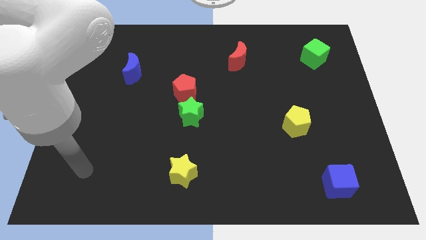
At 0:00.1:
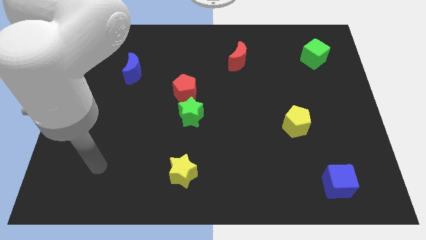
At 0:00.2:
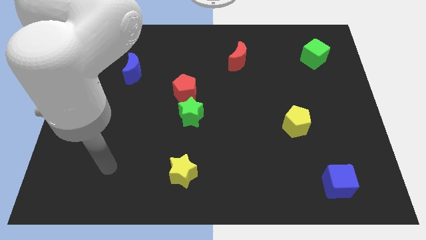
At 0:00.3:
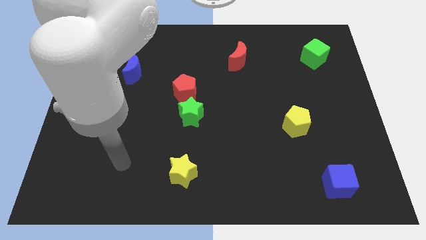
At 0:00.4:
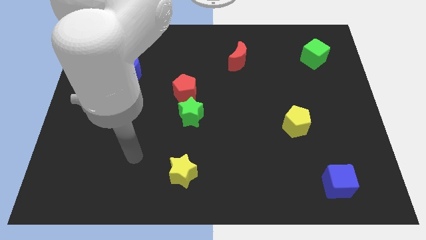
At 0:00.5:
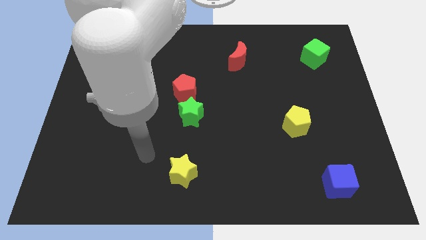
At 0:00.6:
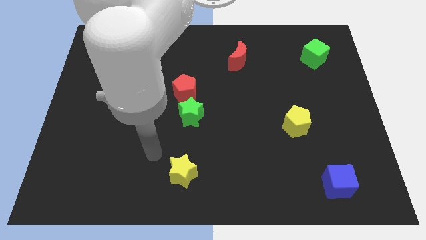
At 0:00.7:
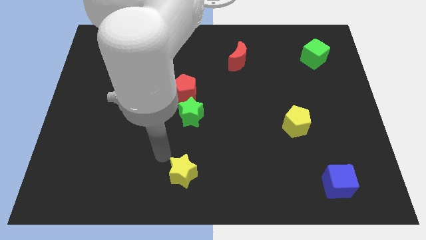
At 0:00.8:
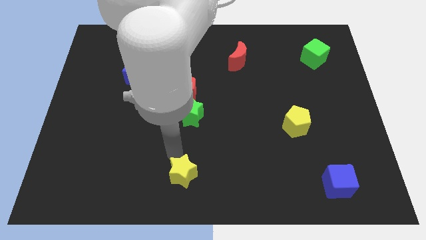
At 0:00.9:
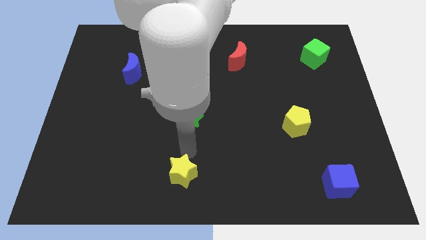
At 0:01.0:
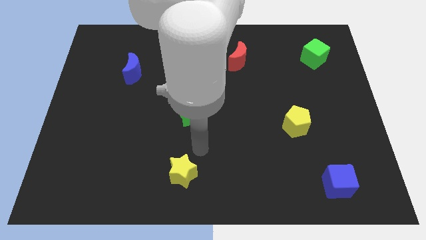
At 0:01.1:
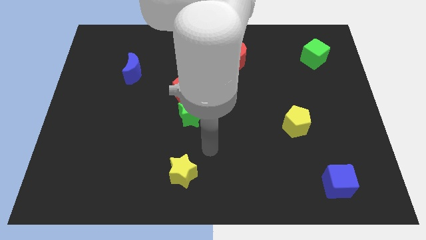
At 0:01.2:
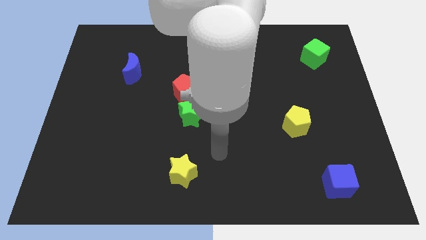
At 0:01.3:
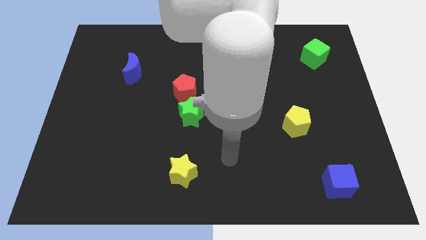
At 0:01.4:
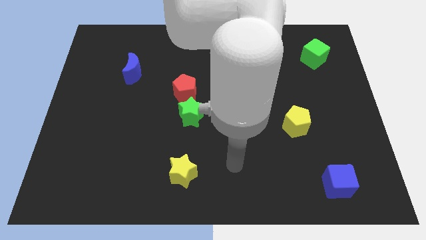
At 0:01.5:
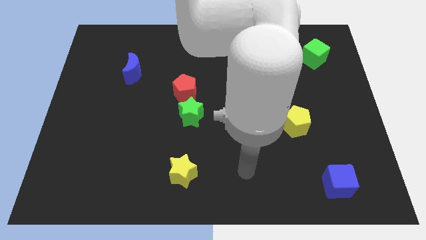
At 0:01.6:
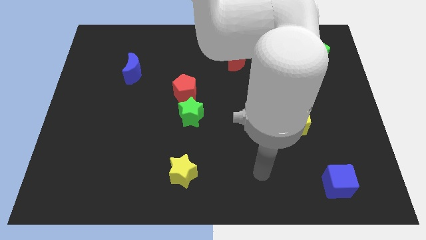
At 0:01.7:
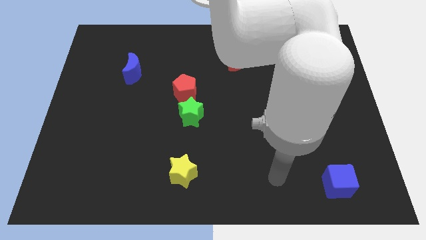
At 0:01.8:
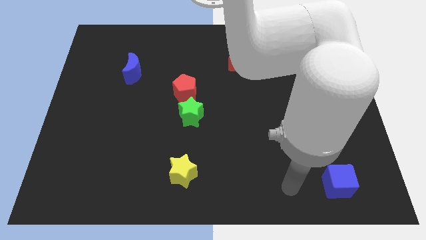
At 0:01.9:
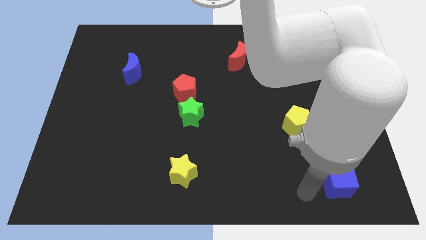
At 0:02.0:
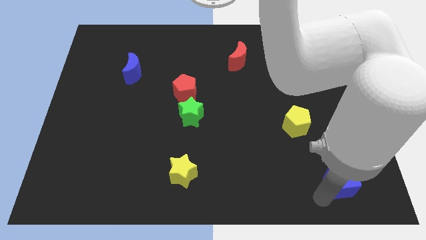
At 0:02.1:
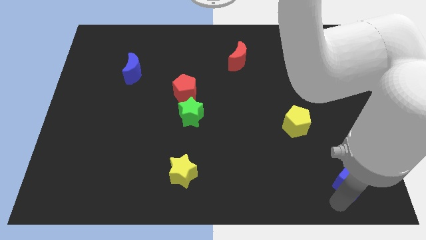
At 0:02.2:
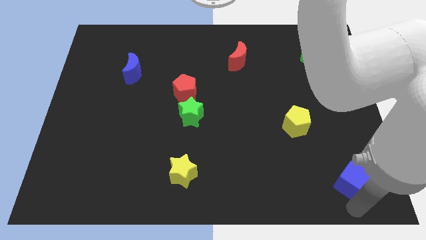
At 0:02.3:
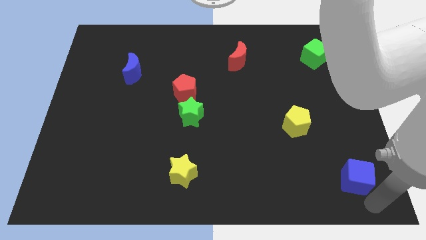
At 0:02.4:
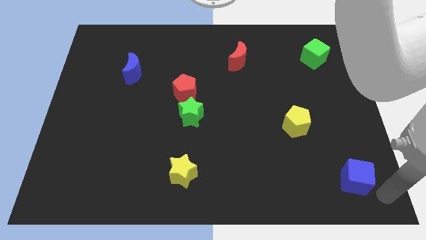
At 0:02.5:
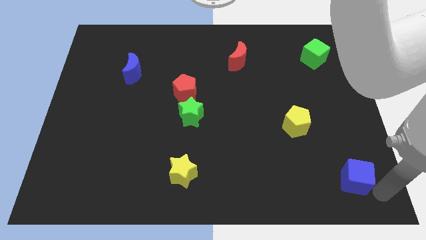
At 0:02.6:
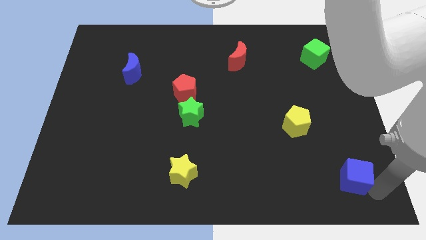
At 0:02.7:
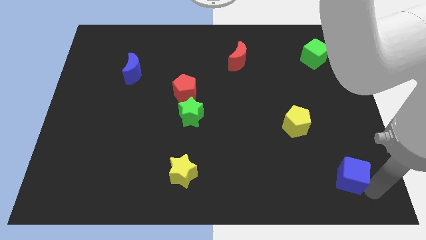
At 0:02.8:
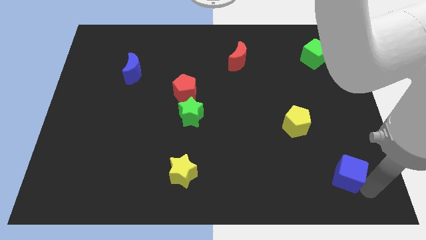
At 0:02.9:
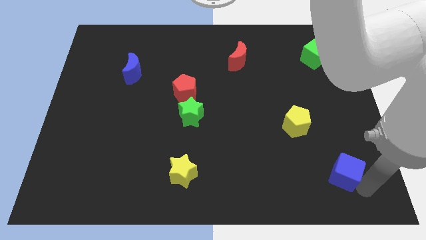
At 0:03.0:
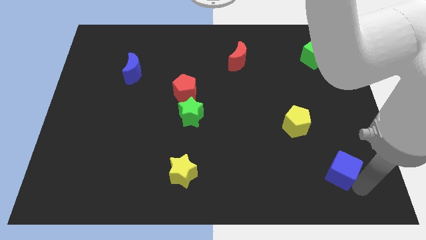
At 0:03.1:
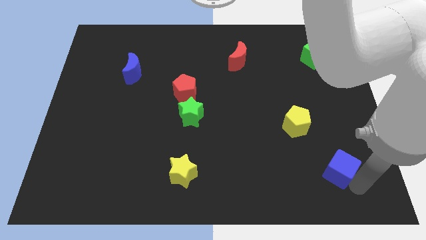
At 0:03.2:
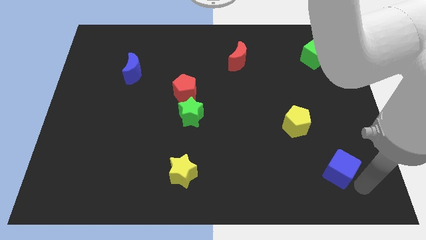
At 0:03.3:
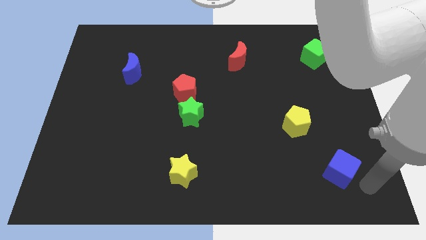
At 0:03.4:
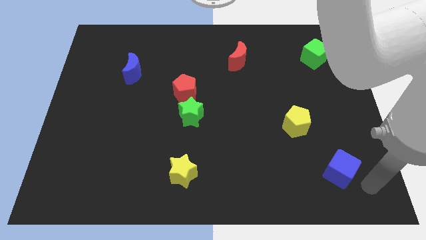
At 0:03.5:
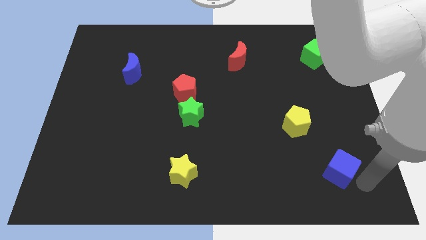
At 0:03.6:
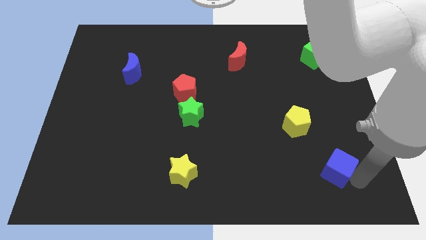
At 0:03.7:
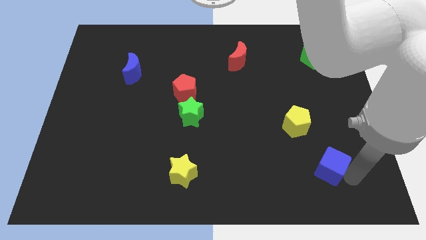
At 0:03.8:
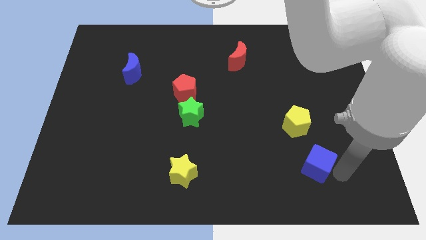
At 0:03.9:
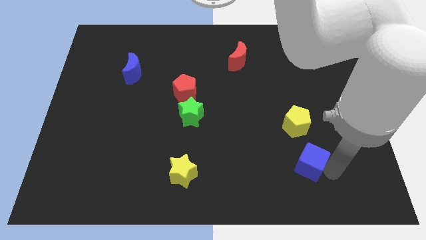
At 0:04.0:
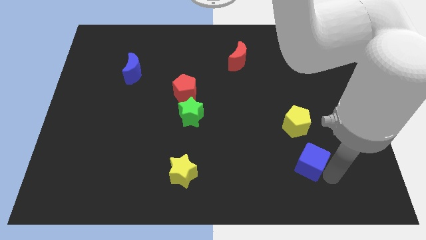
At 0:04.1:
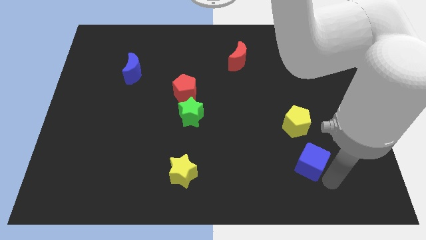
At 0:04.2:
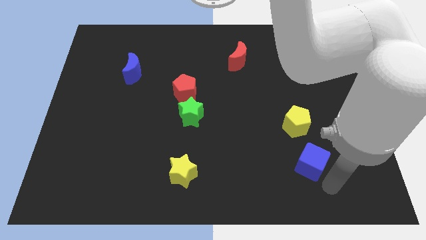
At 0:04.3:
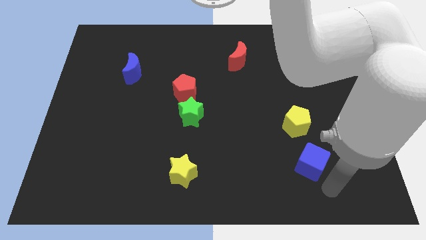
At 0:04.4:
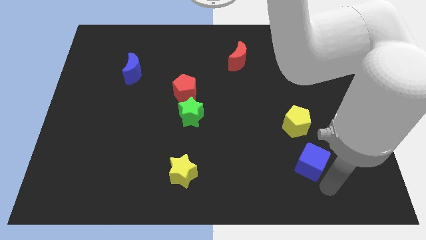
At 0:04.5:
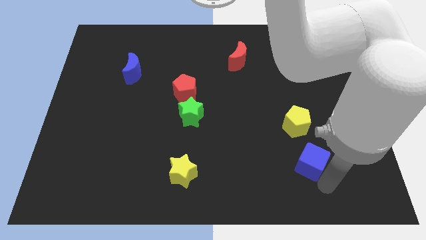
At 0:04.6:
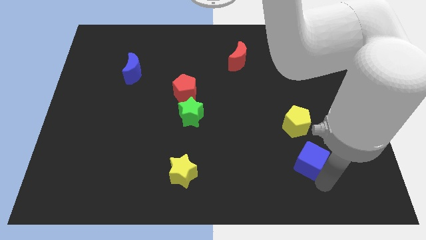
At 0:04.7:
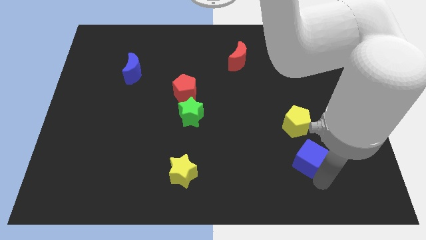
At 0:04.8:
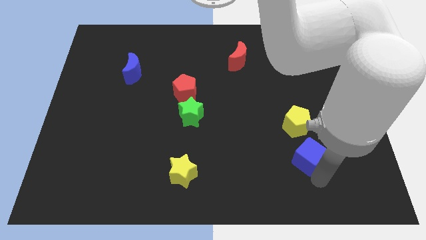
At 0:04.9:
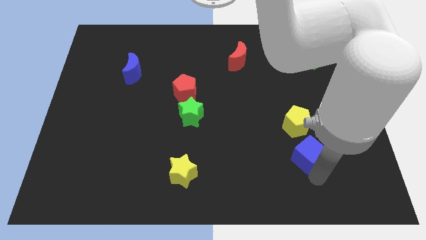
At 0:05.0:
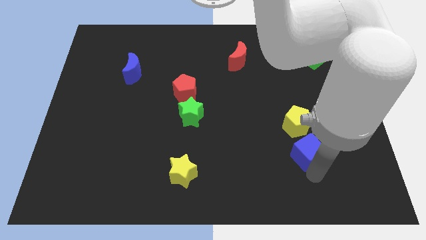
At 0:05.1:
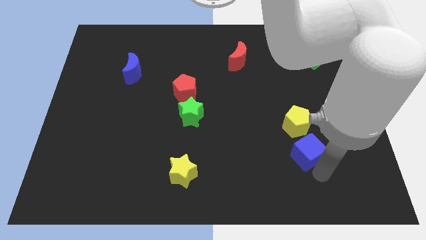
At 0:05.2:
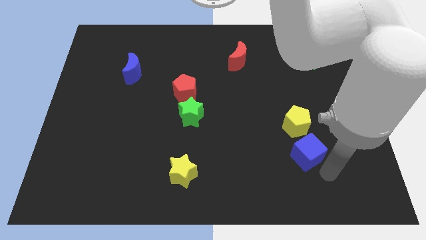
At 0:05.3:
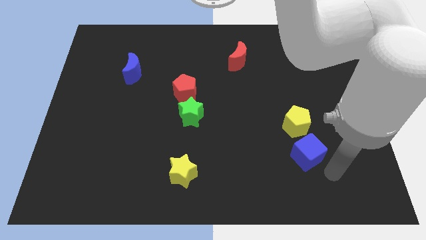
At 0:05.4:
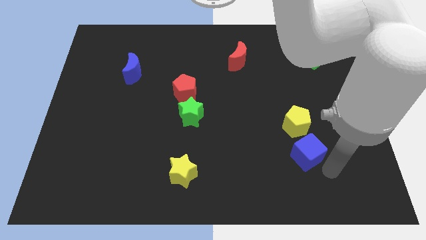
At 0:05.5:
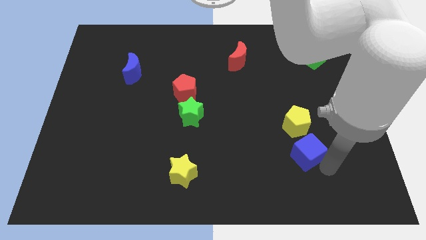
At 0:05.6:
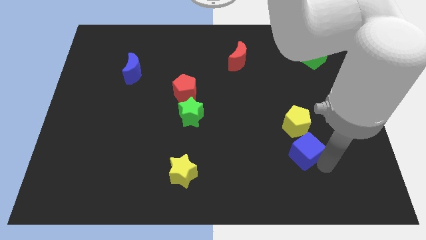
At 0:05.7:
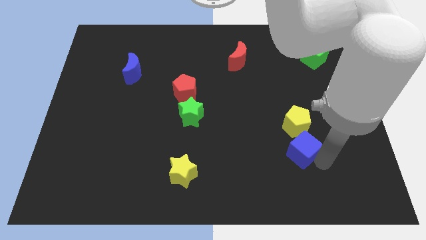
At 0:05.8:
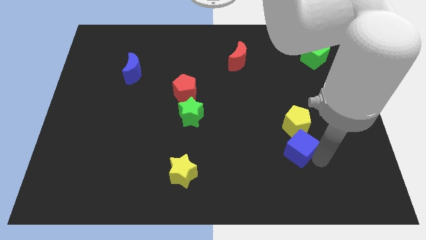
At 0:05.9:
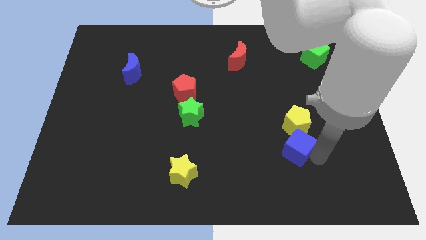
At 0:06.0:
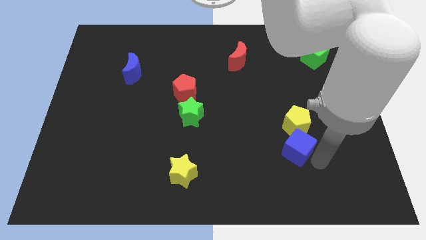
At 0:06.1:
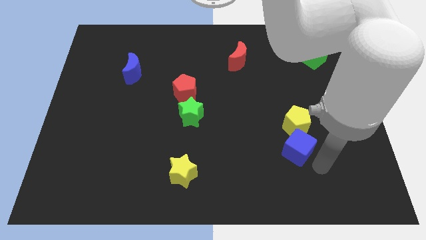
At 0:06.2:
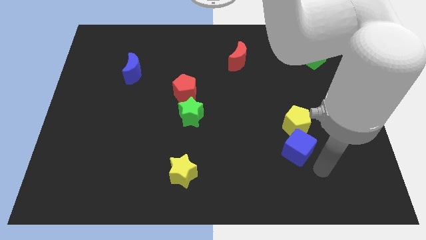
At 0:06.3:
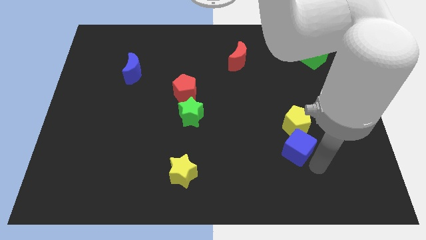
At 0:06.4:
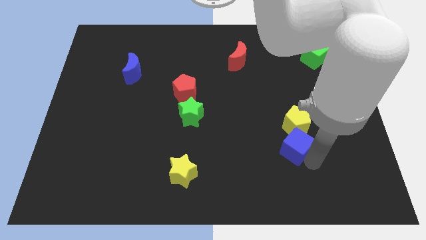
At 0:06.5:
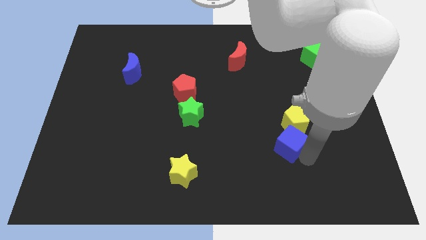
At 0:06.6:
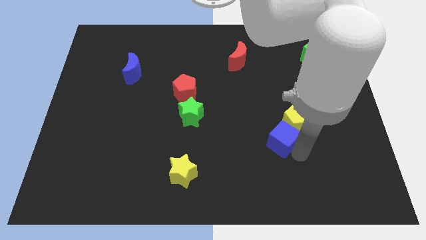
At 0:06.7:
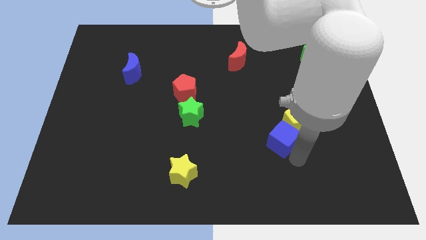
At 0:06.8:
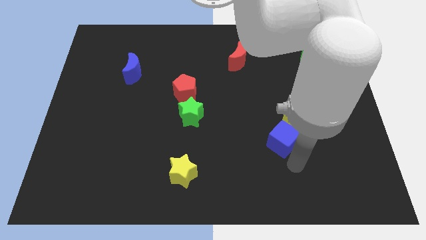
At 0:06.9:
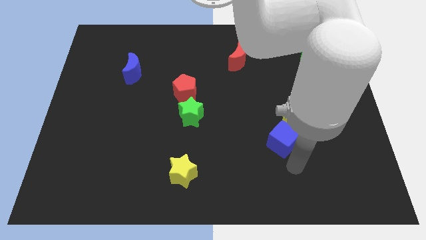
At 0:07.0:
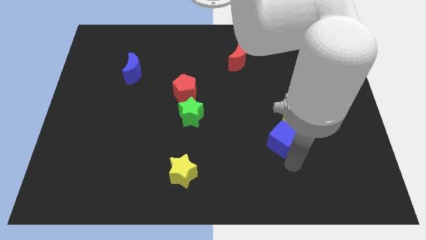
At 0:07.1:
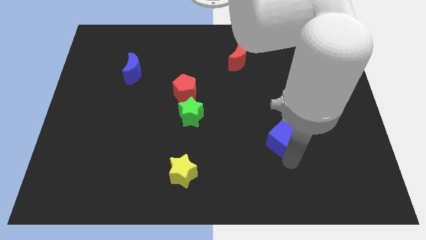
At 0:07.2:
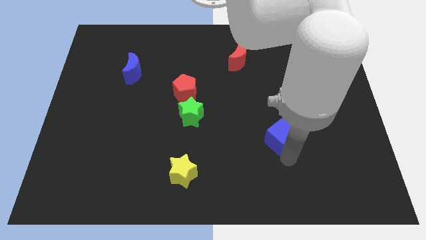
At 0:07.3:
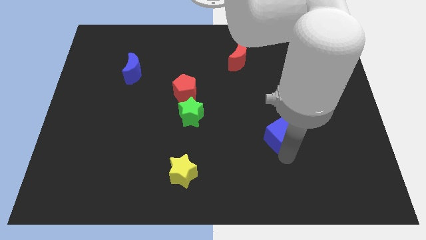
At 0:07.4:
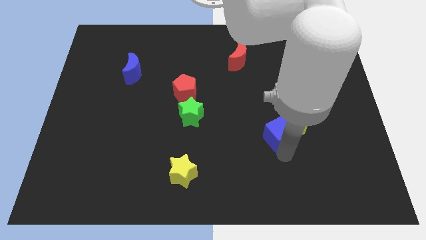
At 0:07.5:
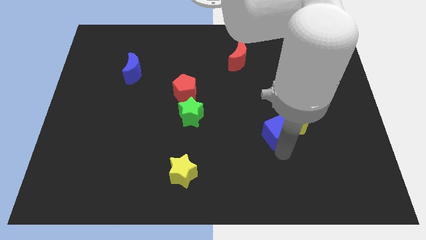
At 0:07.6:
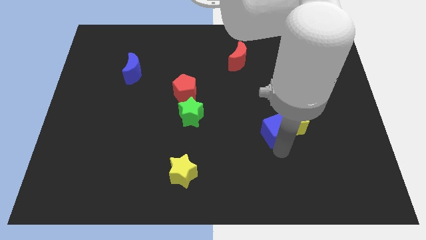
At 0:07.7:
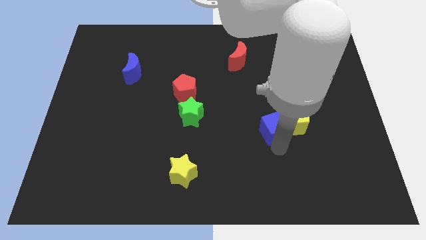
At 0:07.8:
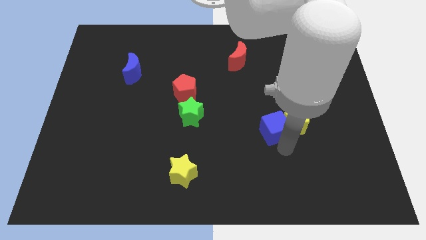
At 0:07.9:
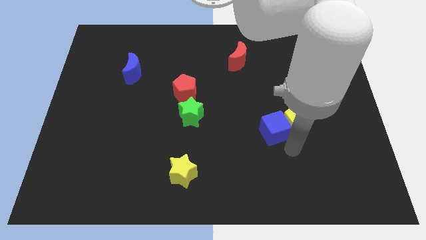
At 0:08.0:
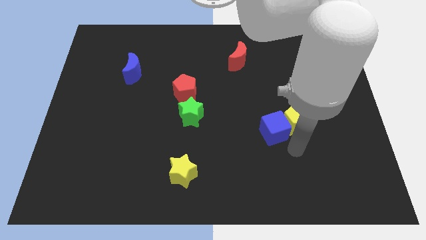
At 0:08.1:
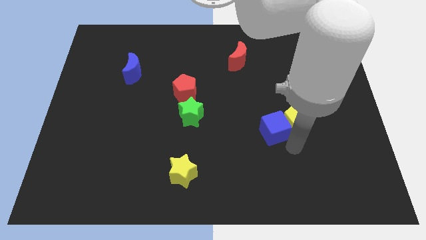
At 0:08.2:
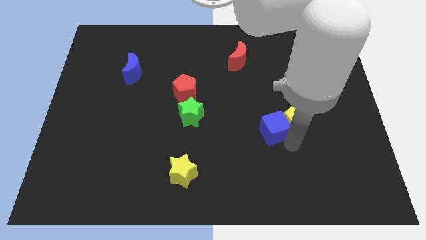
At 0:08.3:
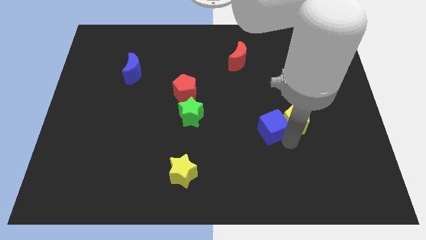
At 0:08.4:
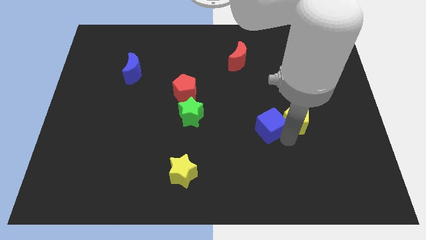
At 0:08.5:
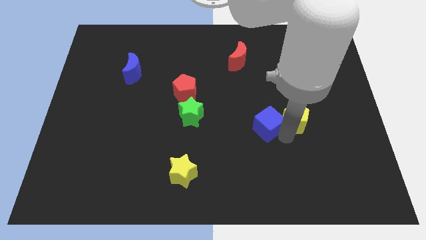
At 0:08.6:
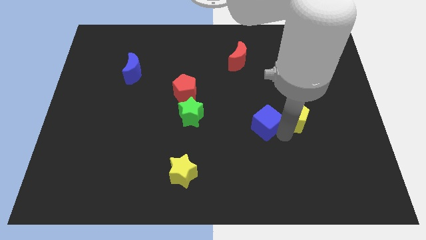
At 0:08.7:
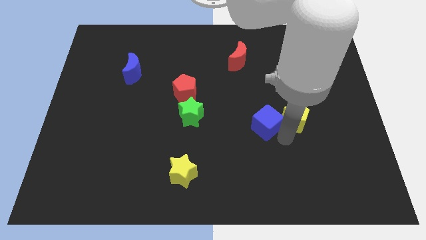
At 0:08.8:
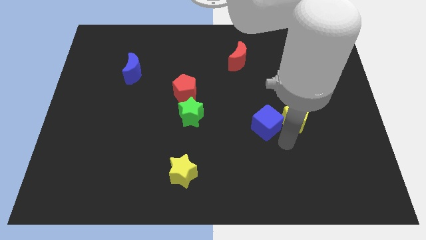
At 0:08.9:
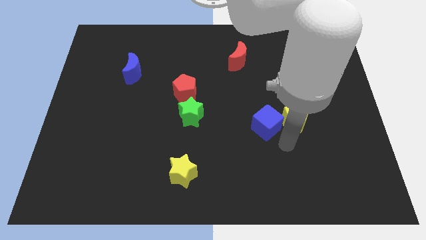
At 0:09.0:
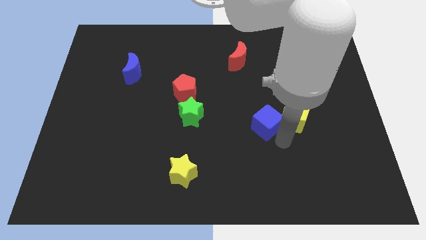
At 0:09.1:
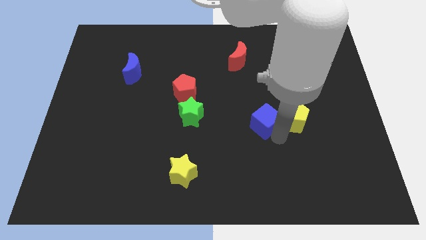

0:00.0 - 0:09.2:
slide the blue cube upwards and then to the left
